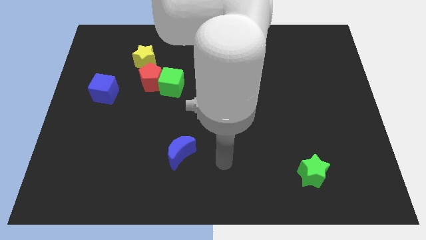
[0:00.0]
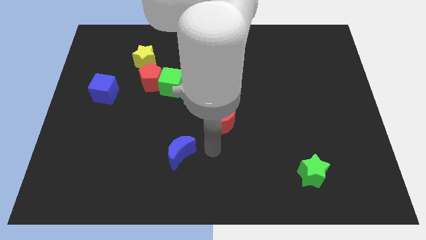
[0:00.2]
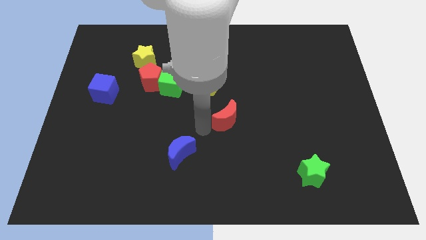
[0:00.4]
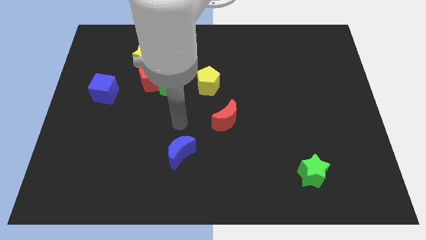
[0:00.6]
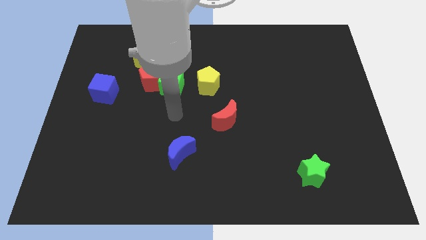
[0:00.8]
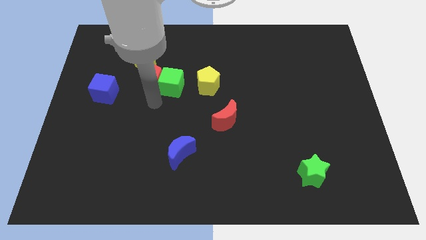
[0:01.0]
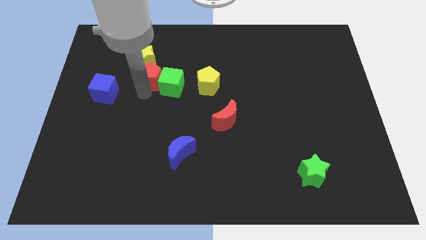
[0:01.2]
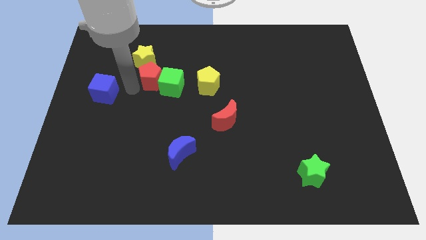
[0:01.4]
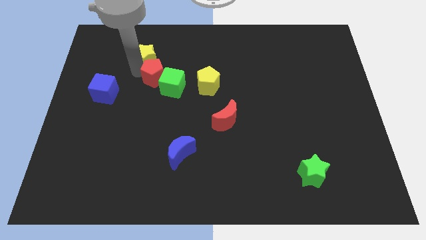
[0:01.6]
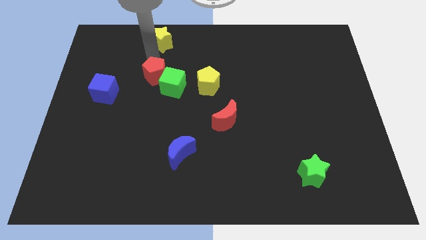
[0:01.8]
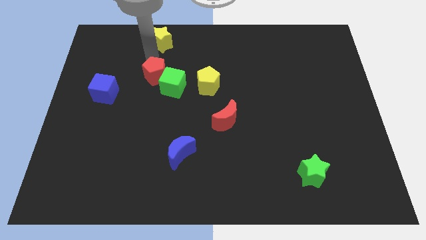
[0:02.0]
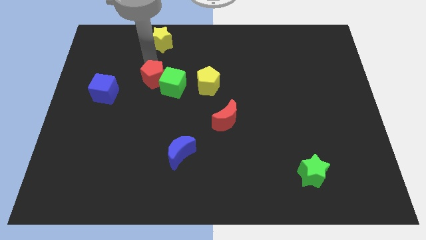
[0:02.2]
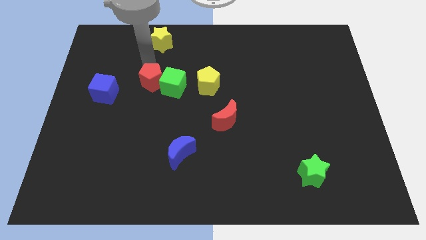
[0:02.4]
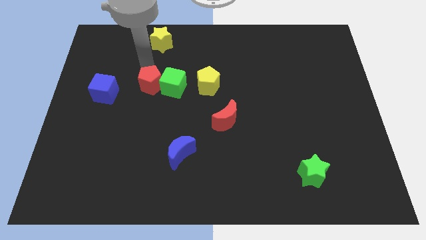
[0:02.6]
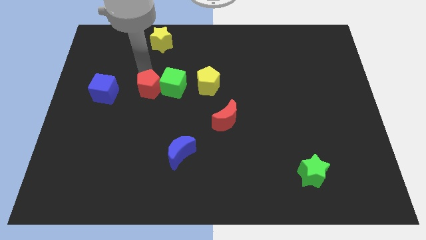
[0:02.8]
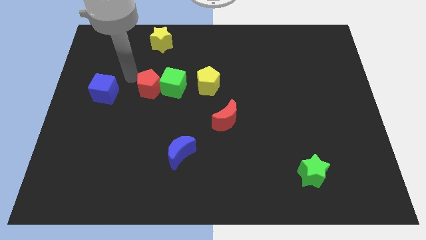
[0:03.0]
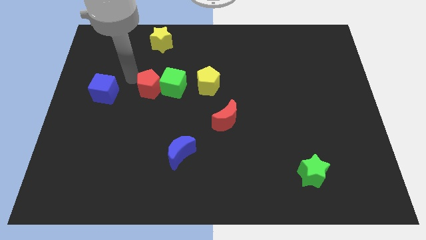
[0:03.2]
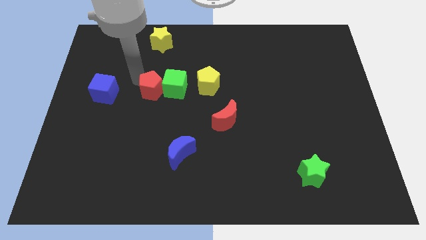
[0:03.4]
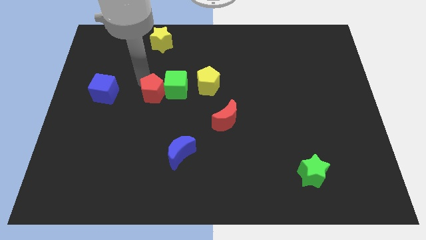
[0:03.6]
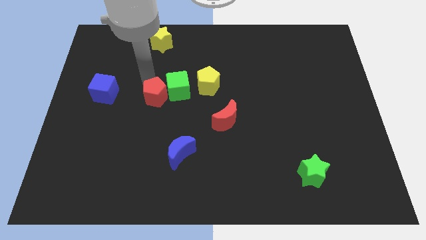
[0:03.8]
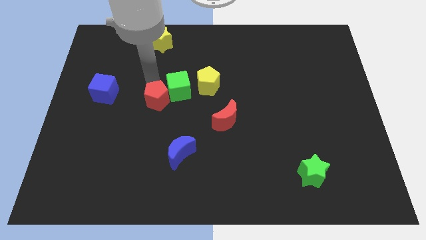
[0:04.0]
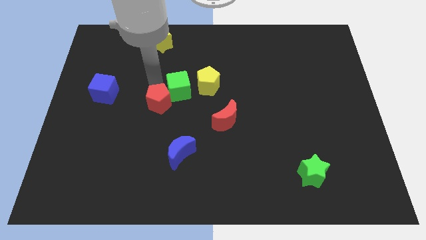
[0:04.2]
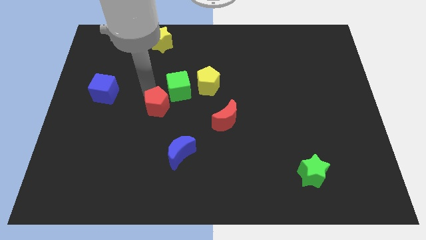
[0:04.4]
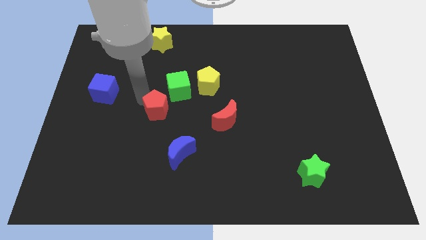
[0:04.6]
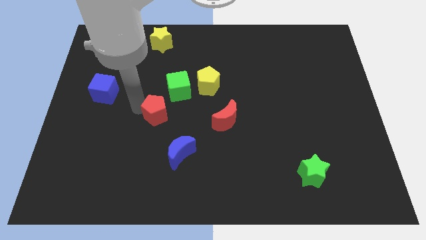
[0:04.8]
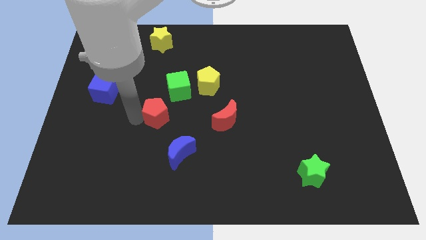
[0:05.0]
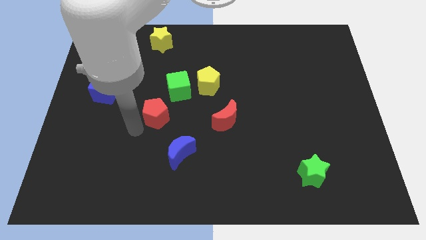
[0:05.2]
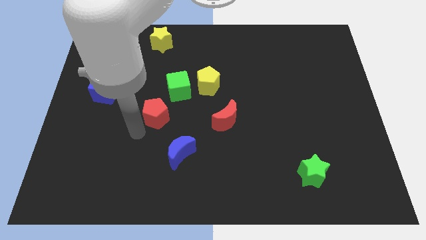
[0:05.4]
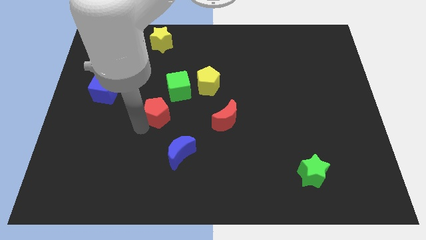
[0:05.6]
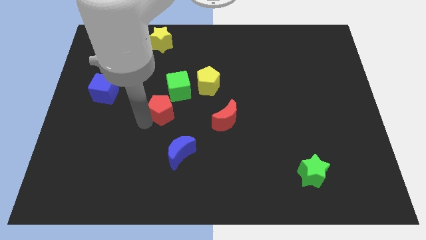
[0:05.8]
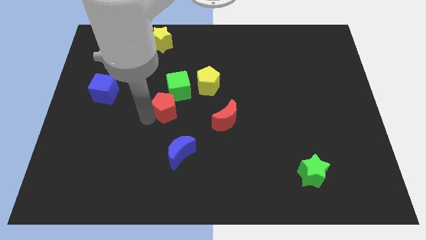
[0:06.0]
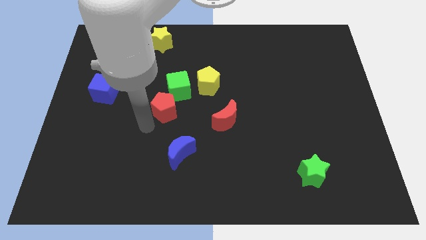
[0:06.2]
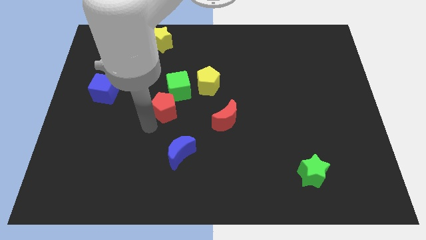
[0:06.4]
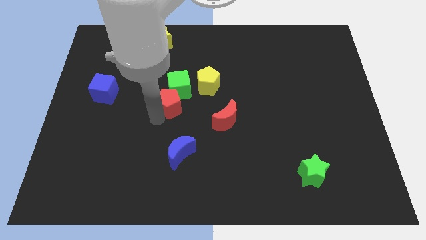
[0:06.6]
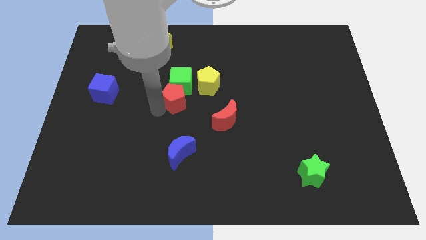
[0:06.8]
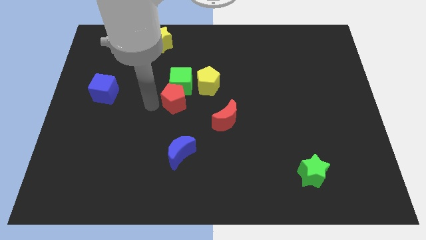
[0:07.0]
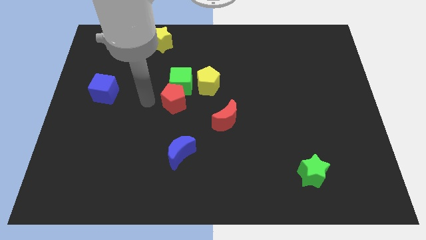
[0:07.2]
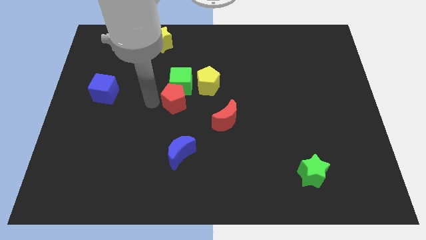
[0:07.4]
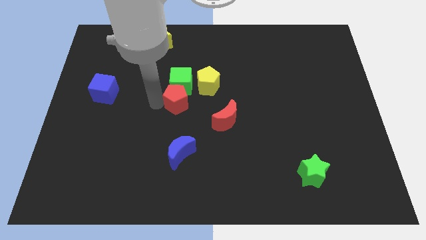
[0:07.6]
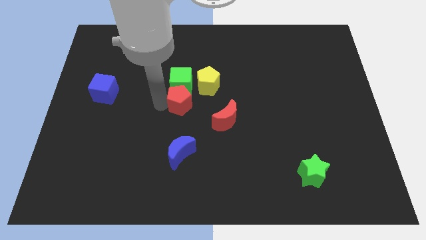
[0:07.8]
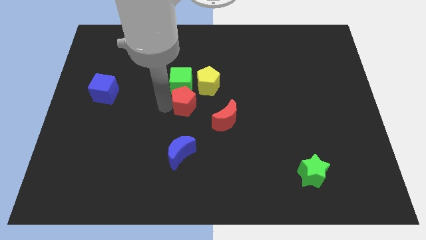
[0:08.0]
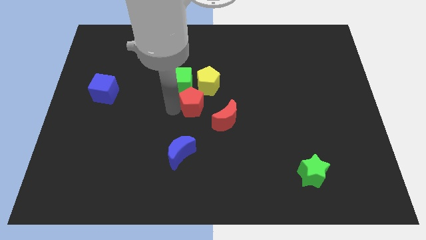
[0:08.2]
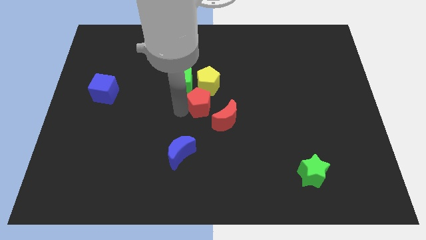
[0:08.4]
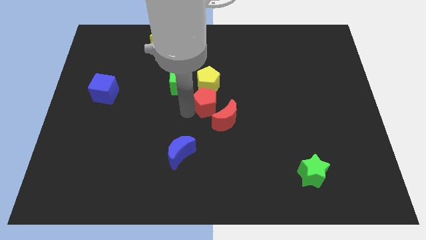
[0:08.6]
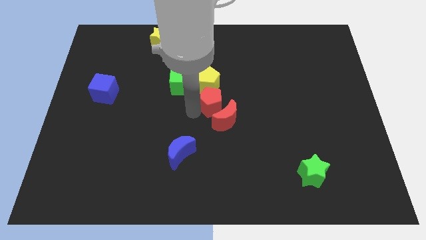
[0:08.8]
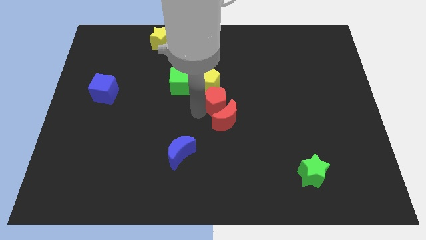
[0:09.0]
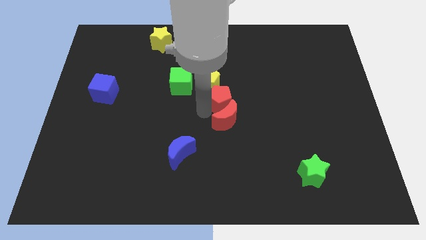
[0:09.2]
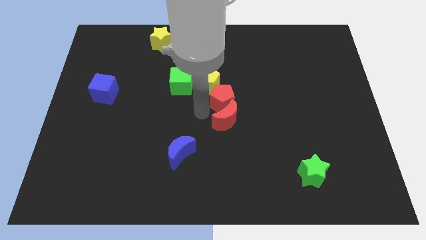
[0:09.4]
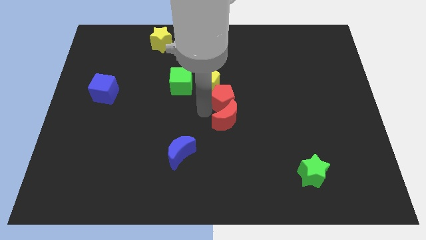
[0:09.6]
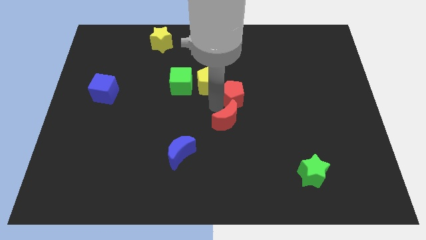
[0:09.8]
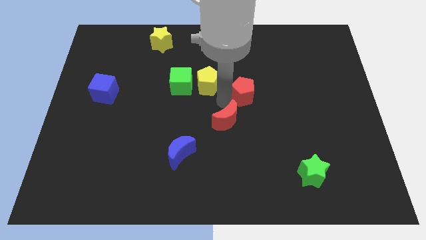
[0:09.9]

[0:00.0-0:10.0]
push the red pentagon right

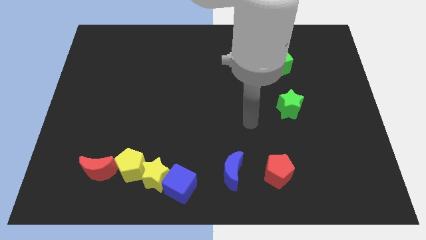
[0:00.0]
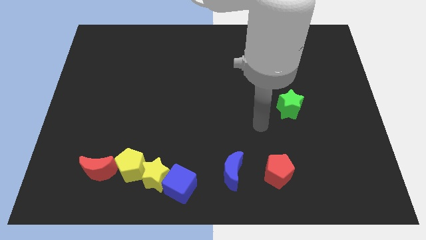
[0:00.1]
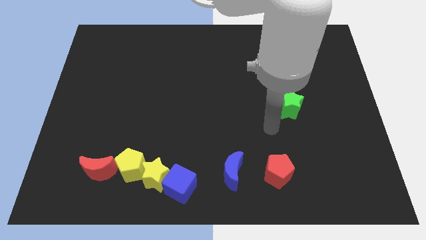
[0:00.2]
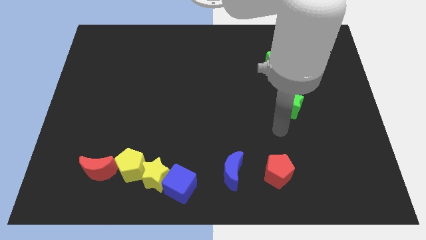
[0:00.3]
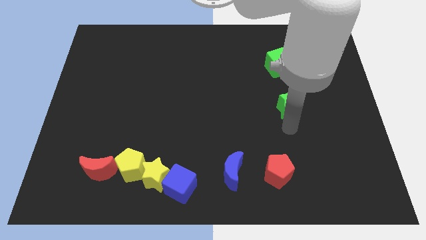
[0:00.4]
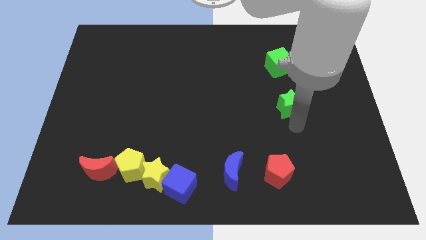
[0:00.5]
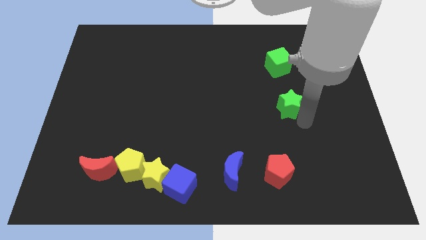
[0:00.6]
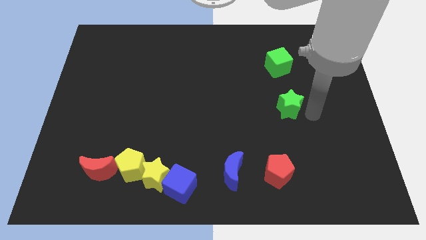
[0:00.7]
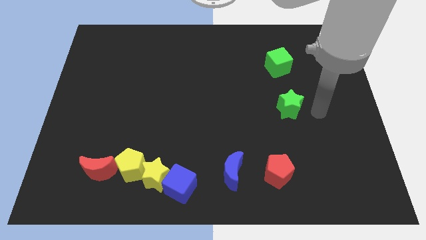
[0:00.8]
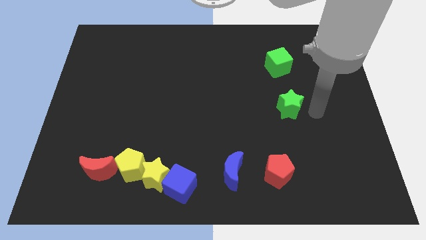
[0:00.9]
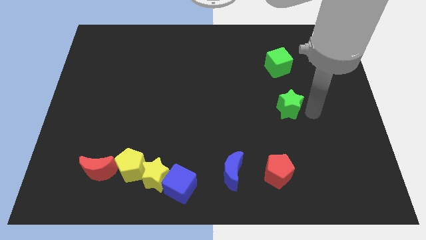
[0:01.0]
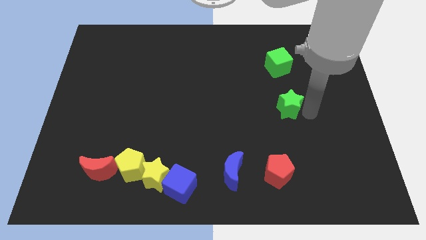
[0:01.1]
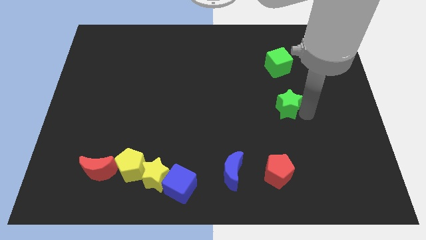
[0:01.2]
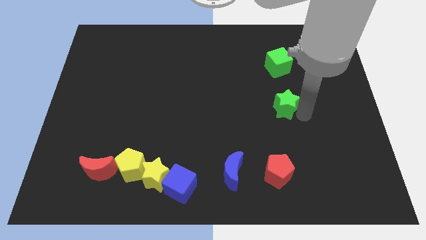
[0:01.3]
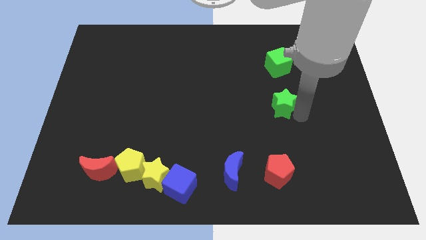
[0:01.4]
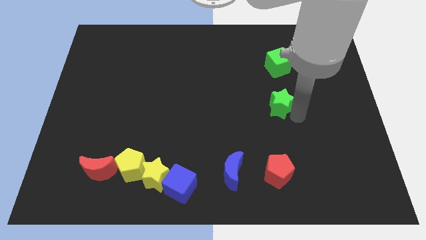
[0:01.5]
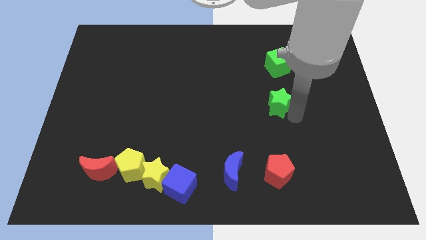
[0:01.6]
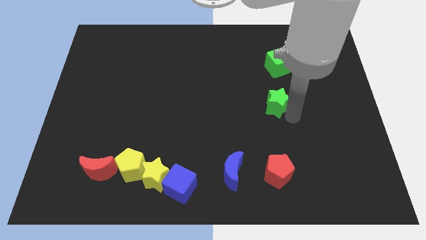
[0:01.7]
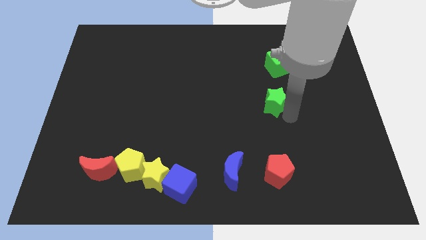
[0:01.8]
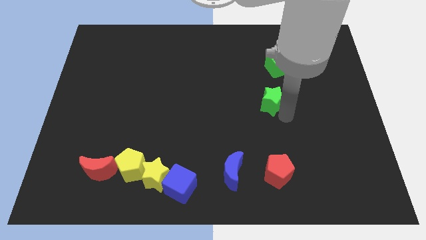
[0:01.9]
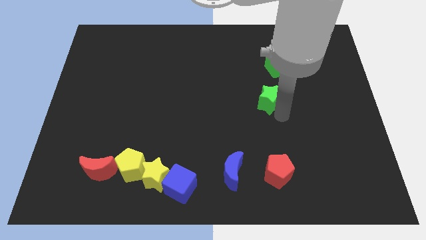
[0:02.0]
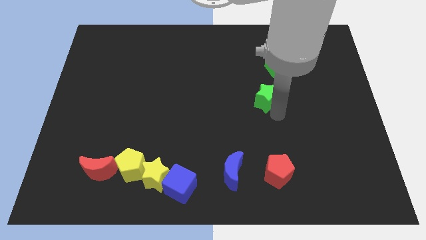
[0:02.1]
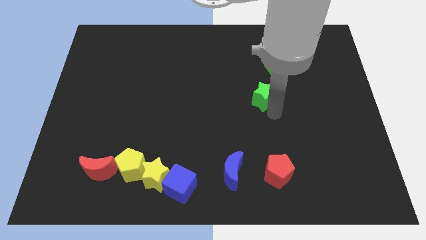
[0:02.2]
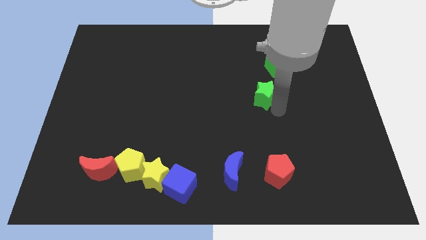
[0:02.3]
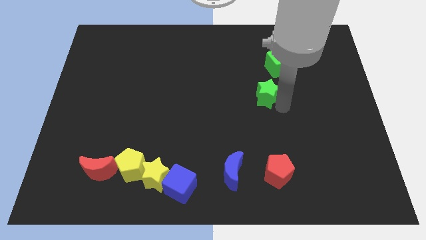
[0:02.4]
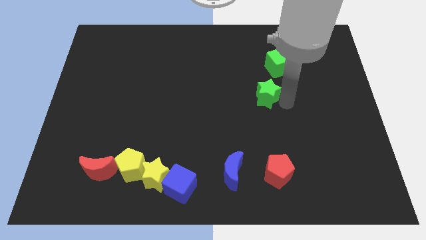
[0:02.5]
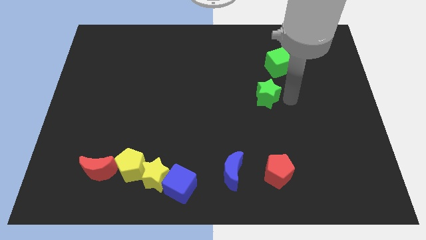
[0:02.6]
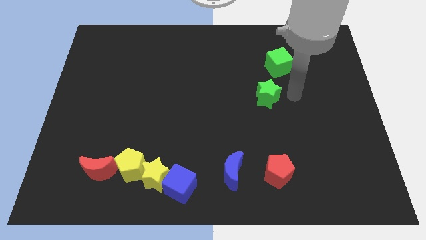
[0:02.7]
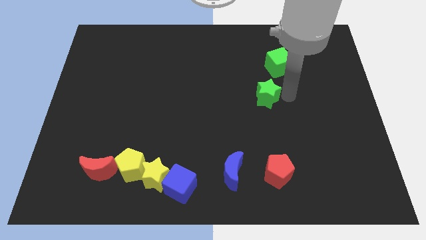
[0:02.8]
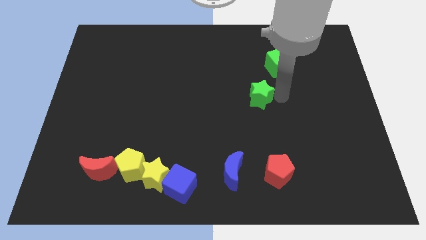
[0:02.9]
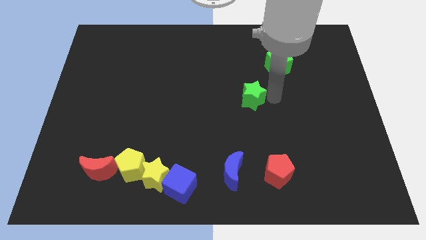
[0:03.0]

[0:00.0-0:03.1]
push the green star slightly left

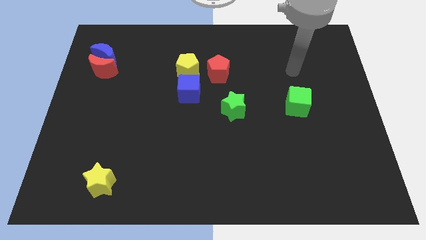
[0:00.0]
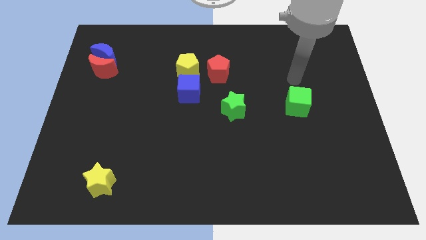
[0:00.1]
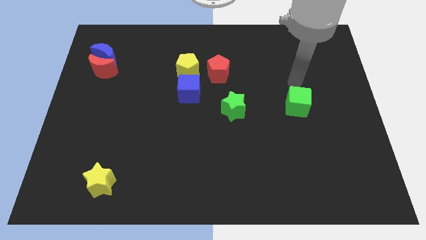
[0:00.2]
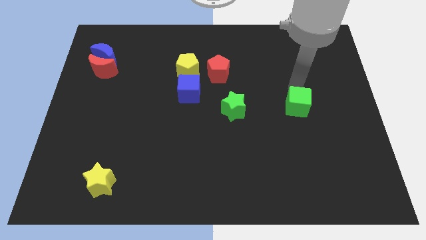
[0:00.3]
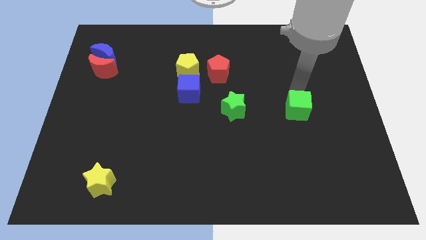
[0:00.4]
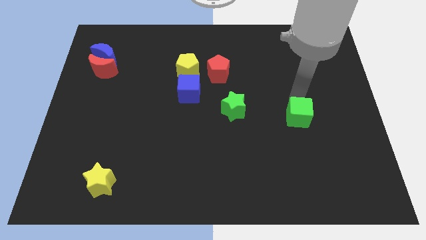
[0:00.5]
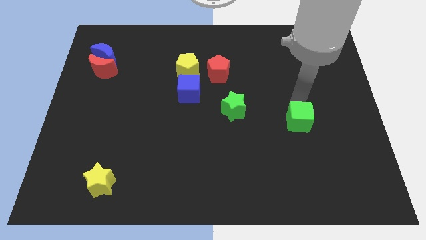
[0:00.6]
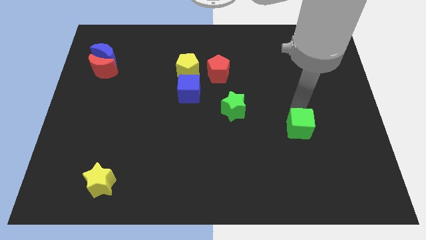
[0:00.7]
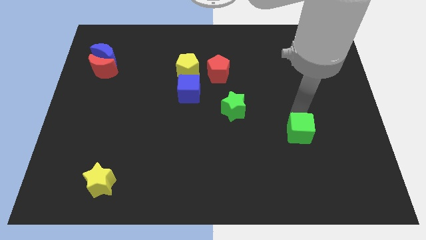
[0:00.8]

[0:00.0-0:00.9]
push the green cube down a little
